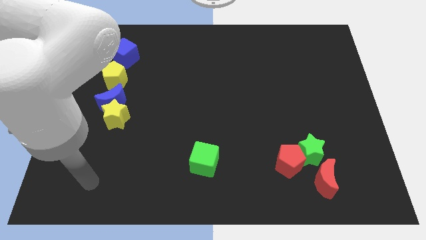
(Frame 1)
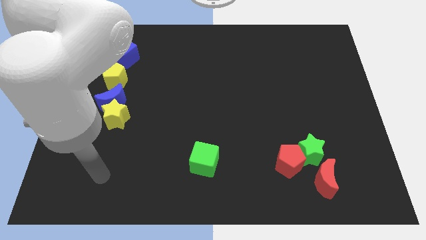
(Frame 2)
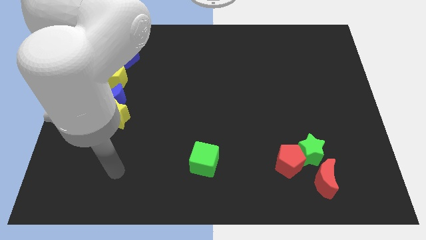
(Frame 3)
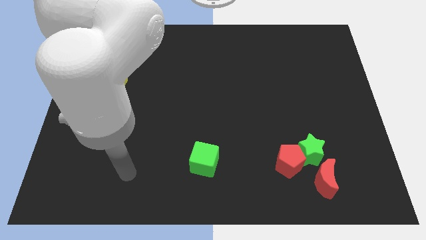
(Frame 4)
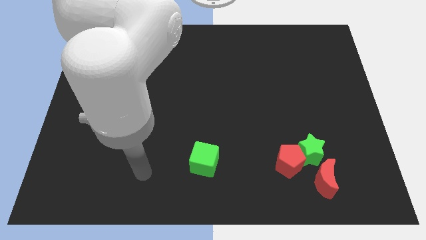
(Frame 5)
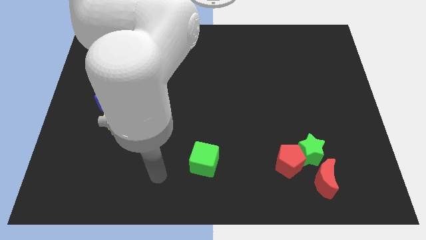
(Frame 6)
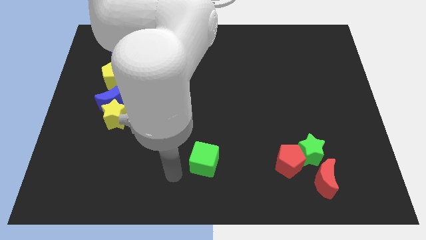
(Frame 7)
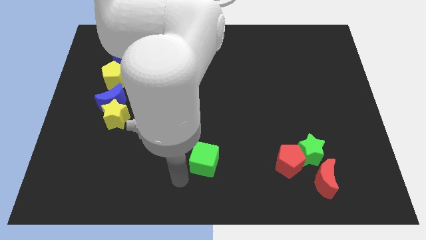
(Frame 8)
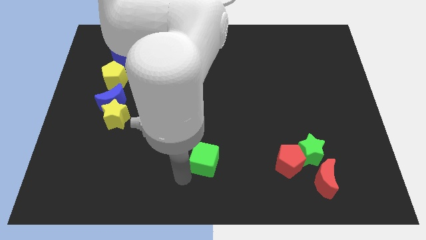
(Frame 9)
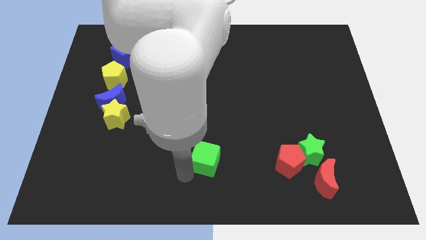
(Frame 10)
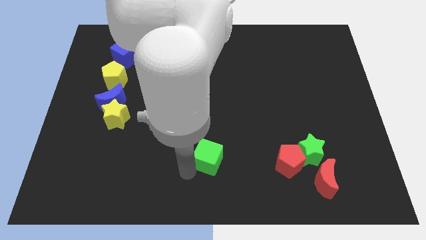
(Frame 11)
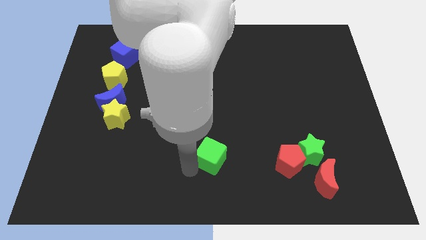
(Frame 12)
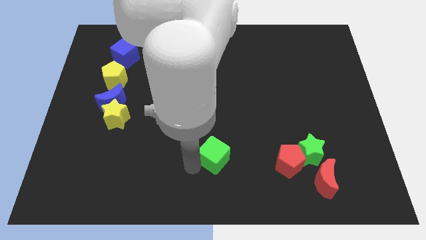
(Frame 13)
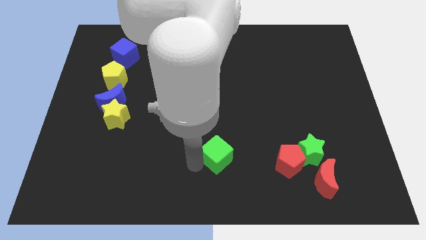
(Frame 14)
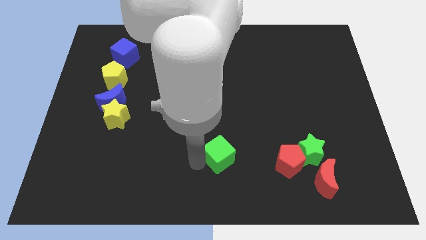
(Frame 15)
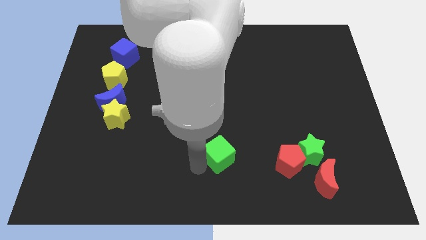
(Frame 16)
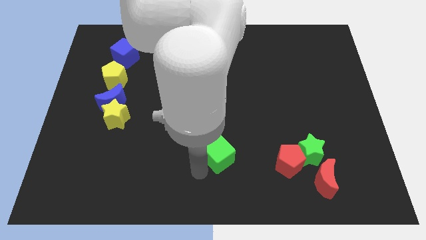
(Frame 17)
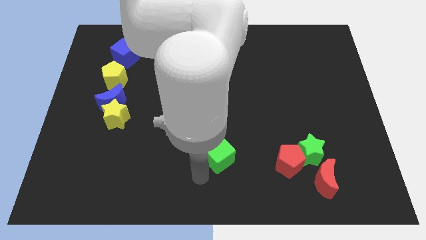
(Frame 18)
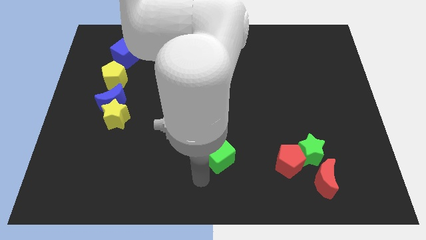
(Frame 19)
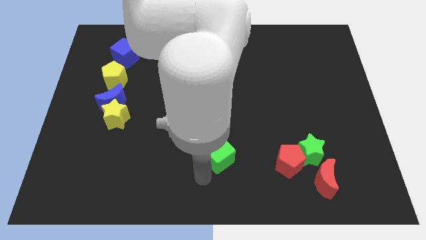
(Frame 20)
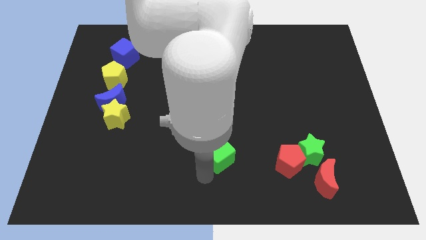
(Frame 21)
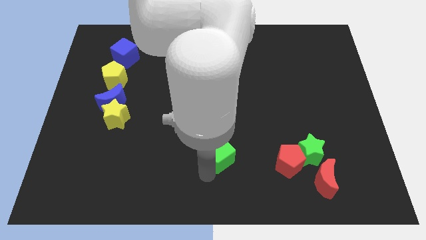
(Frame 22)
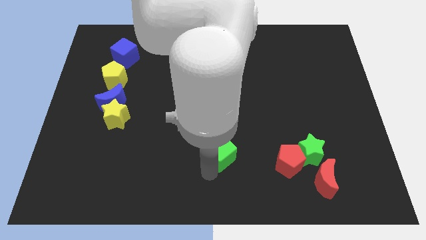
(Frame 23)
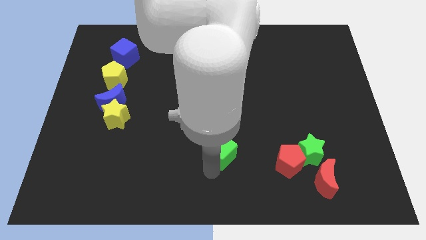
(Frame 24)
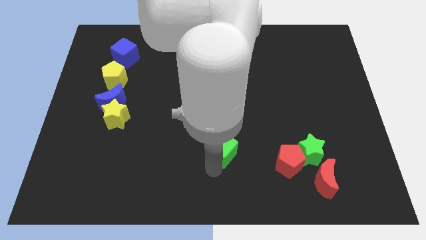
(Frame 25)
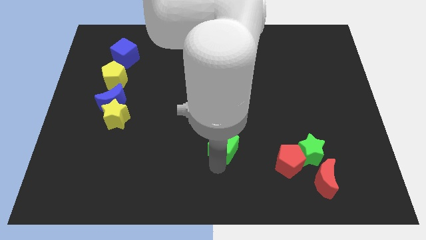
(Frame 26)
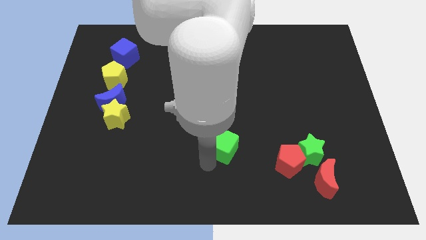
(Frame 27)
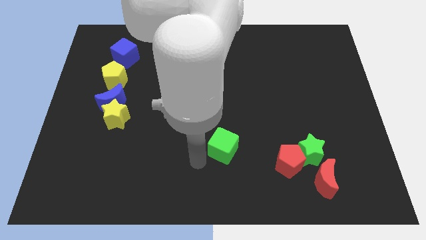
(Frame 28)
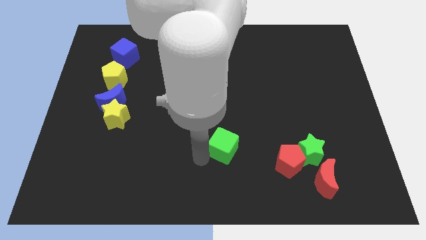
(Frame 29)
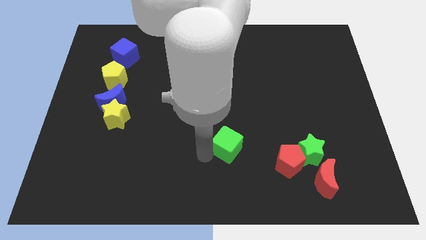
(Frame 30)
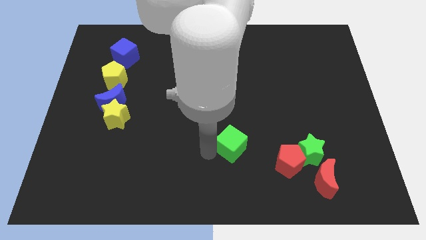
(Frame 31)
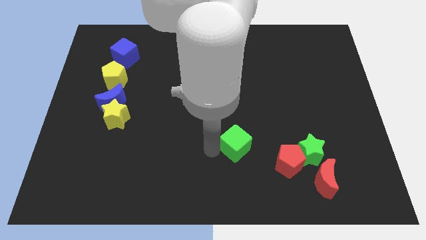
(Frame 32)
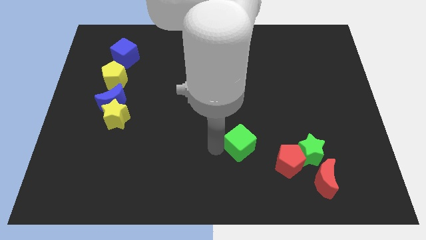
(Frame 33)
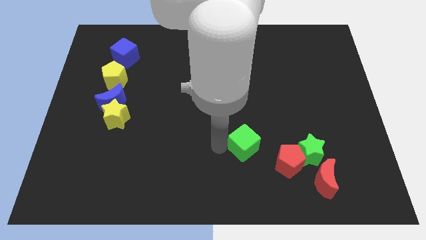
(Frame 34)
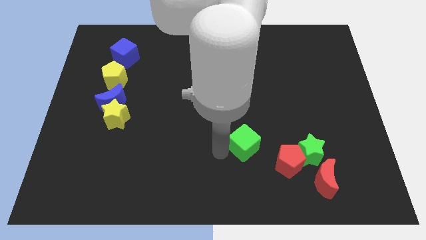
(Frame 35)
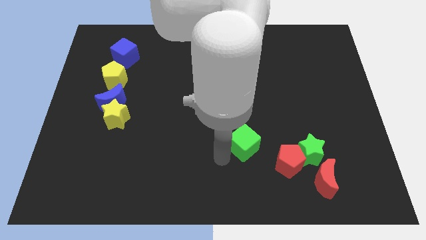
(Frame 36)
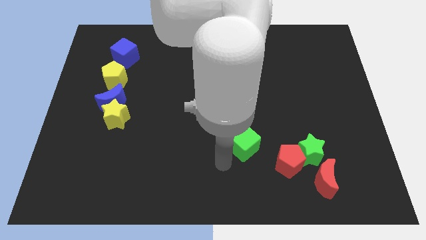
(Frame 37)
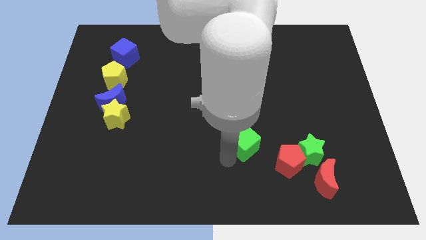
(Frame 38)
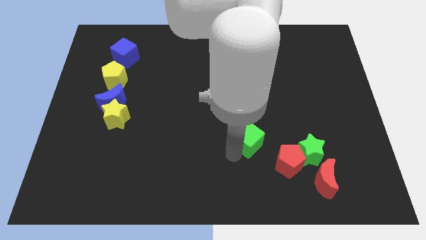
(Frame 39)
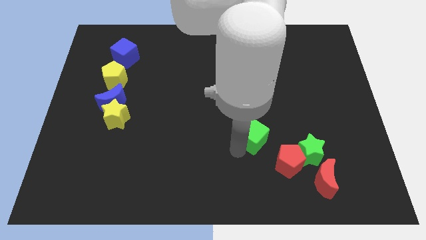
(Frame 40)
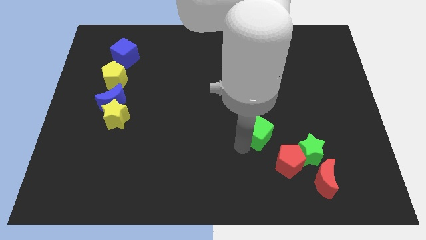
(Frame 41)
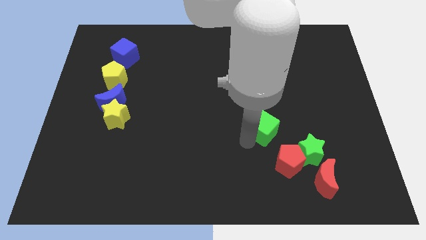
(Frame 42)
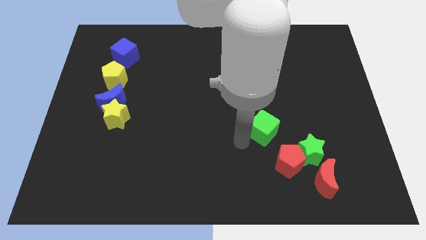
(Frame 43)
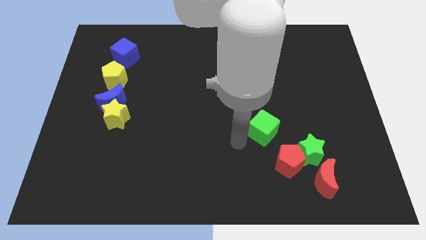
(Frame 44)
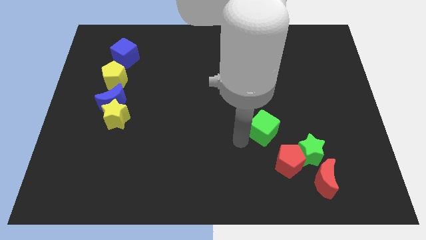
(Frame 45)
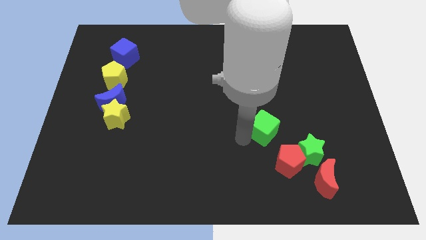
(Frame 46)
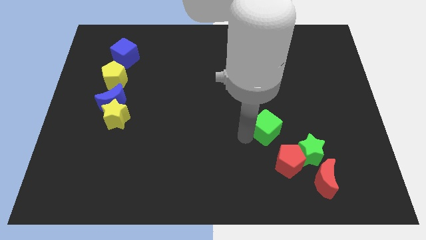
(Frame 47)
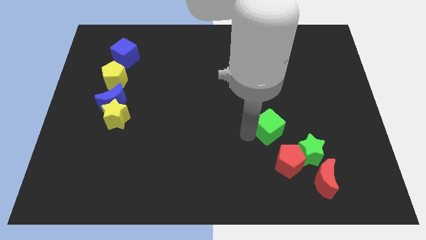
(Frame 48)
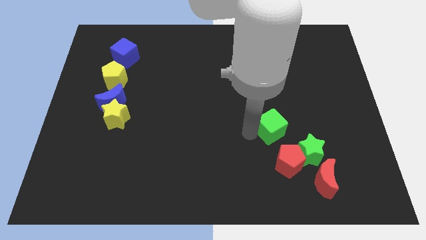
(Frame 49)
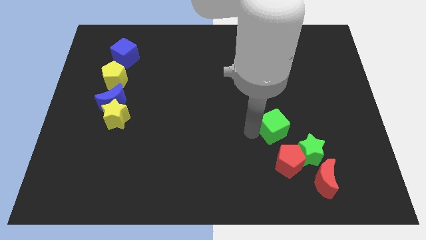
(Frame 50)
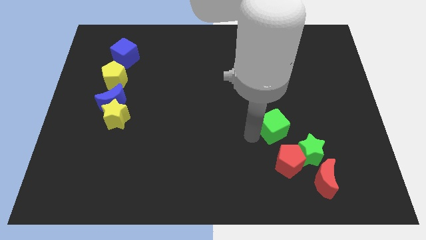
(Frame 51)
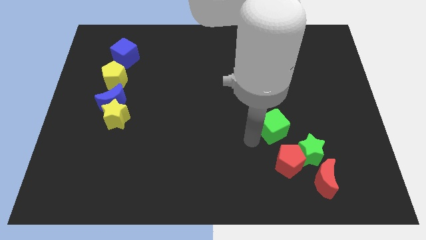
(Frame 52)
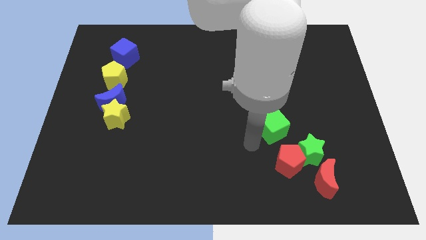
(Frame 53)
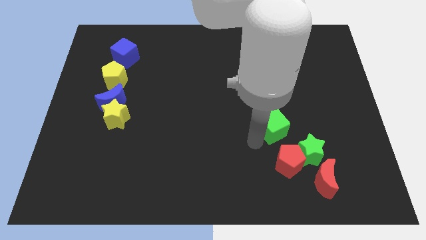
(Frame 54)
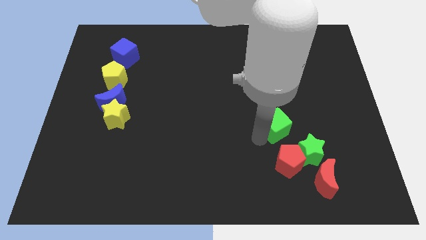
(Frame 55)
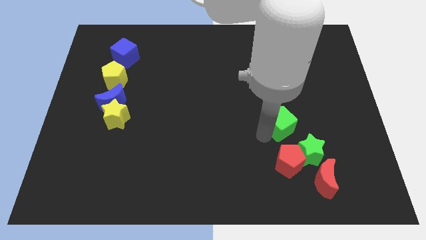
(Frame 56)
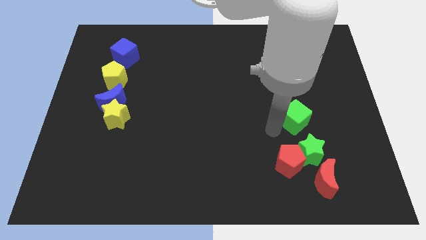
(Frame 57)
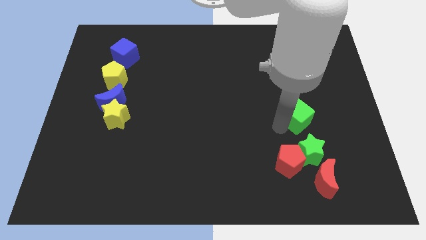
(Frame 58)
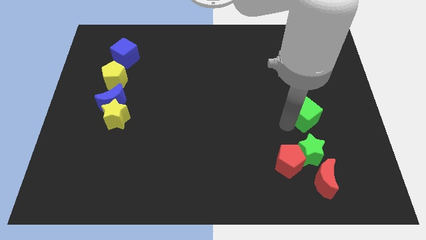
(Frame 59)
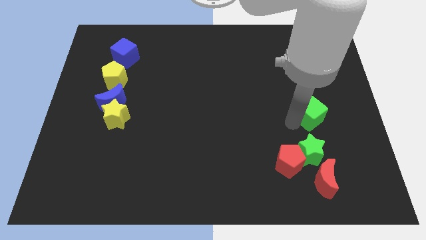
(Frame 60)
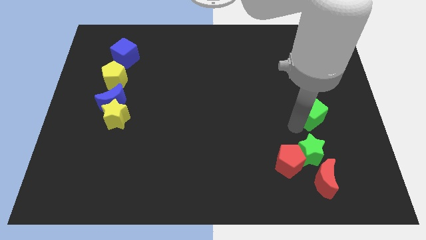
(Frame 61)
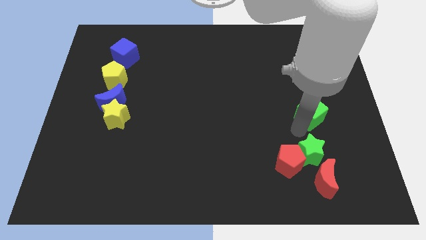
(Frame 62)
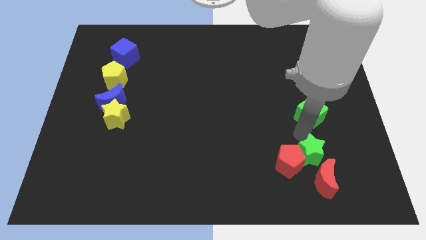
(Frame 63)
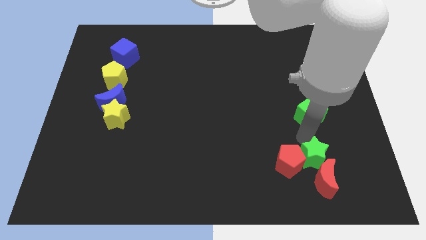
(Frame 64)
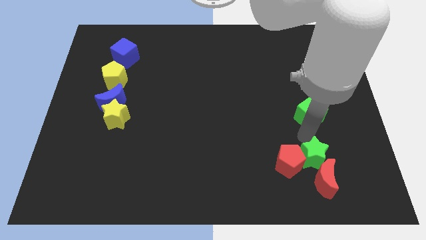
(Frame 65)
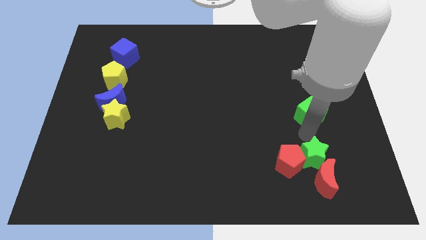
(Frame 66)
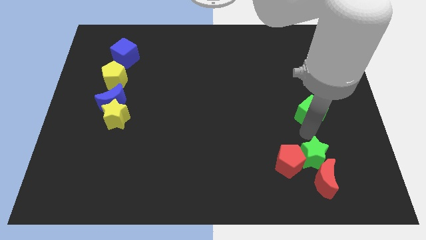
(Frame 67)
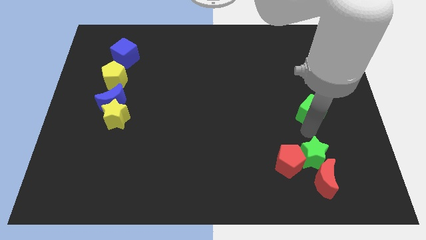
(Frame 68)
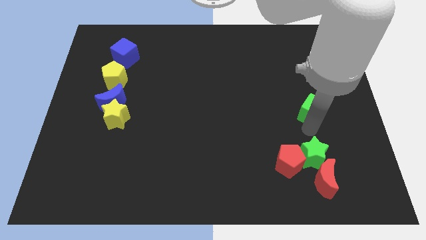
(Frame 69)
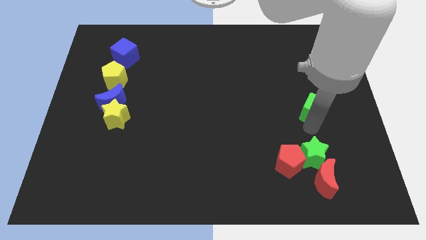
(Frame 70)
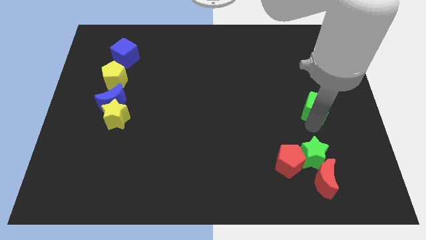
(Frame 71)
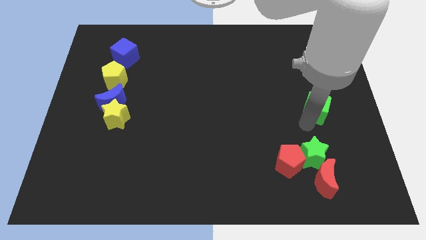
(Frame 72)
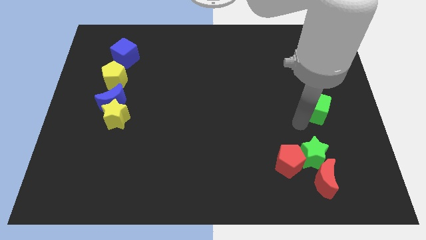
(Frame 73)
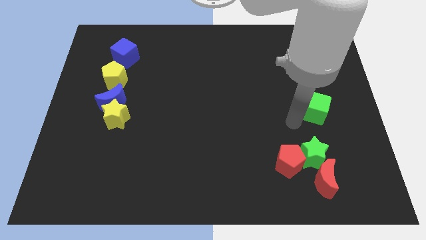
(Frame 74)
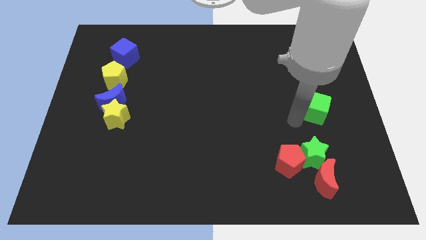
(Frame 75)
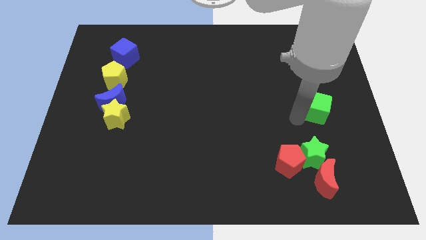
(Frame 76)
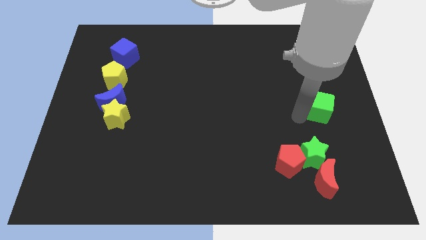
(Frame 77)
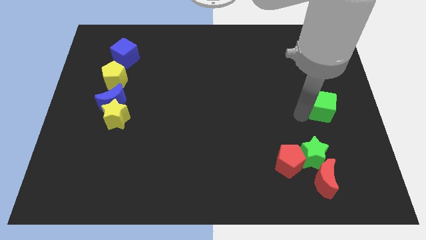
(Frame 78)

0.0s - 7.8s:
push the green cube to the right side
